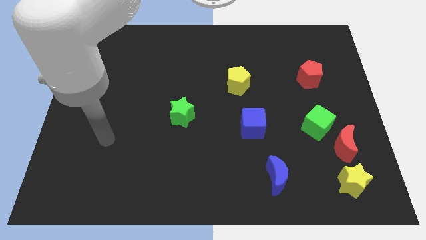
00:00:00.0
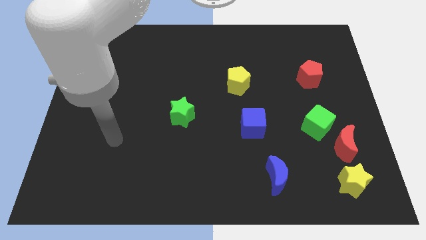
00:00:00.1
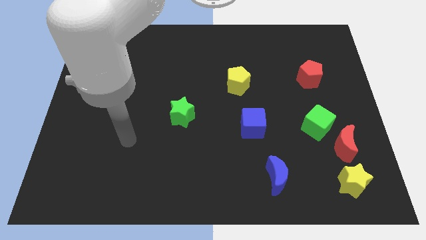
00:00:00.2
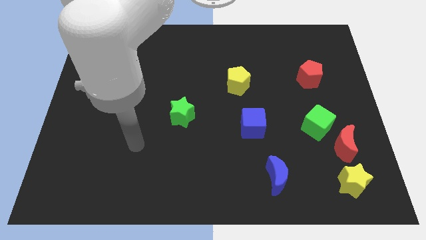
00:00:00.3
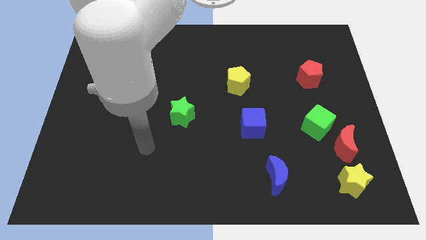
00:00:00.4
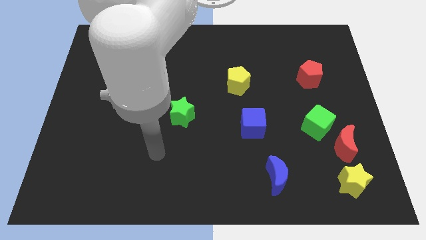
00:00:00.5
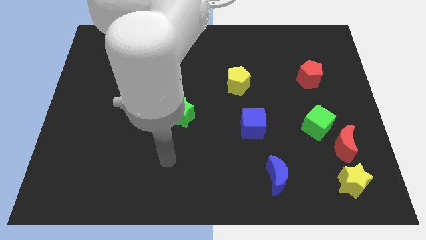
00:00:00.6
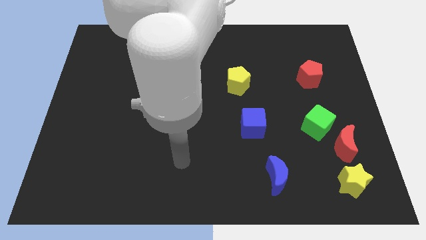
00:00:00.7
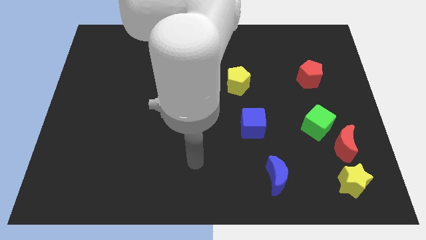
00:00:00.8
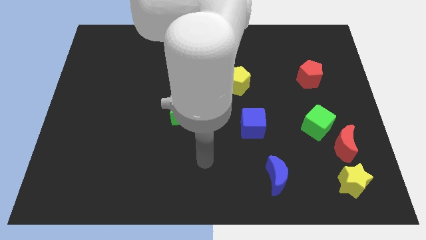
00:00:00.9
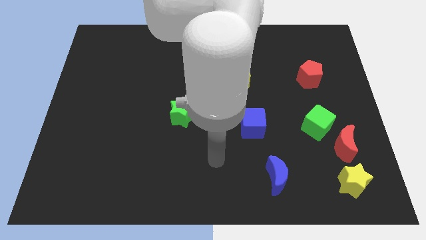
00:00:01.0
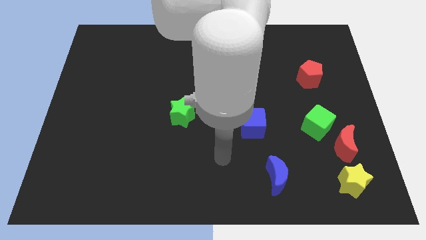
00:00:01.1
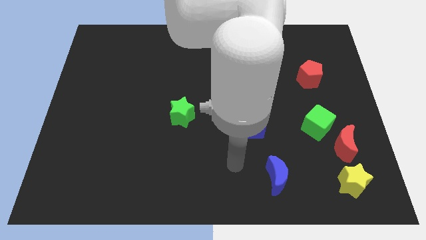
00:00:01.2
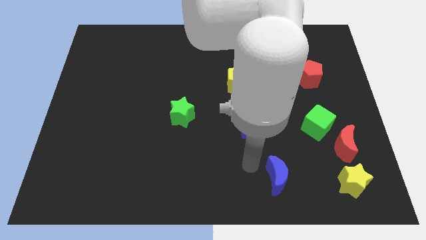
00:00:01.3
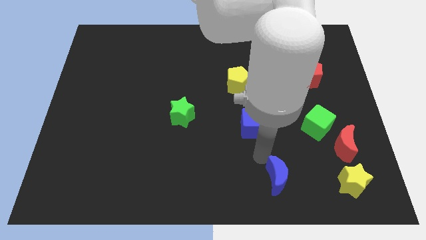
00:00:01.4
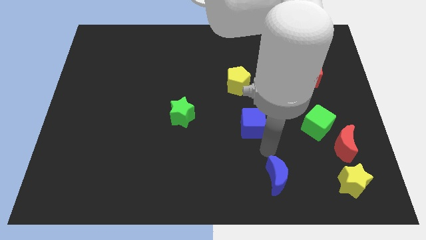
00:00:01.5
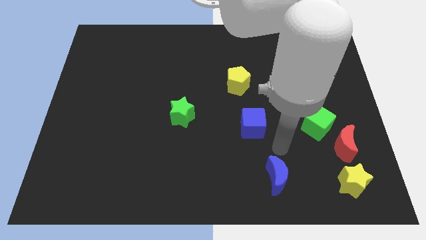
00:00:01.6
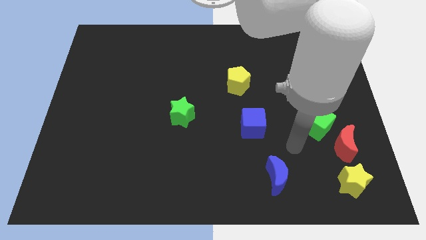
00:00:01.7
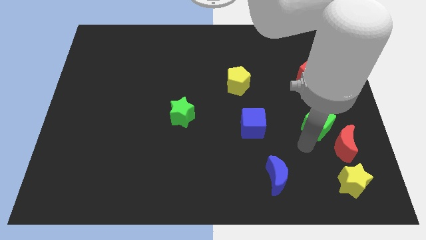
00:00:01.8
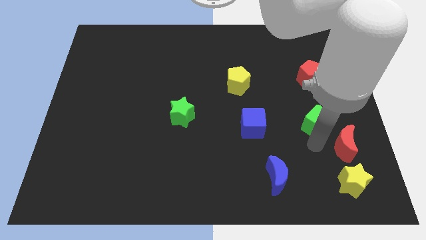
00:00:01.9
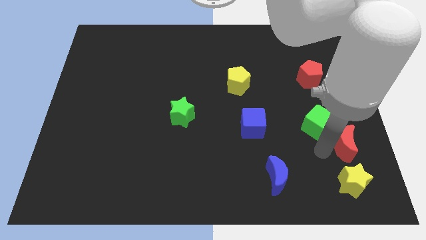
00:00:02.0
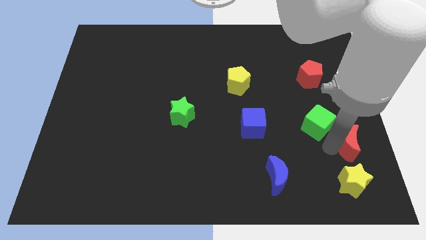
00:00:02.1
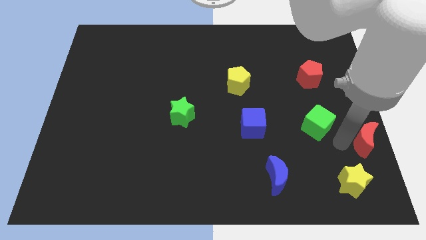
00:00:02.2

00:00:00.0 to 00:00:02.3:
pull the green cube apart from the red moon

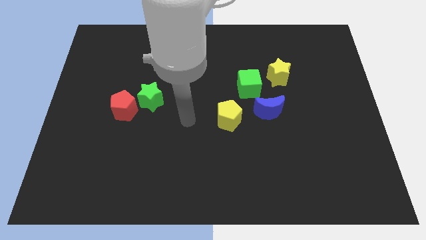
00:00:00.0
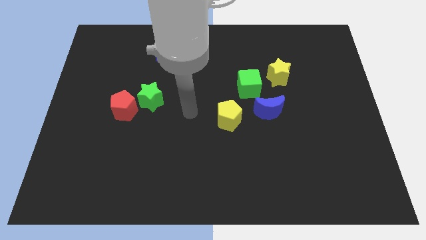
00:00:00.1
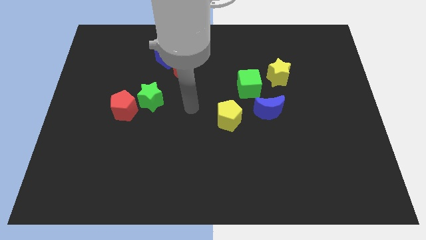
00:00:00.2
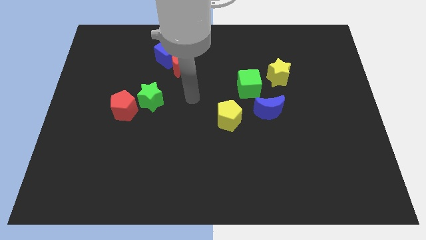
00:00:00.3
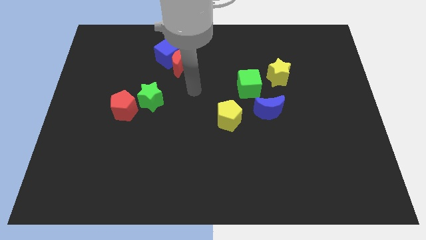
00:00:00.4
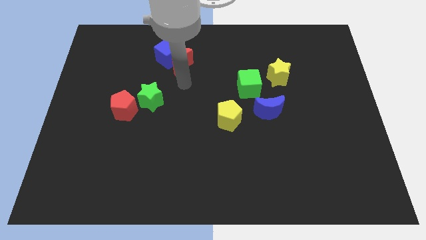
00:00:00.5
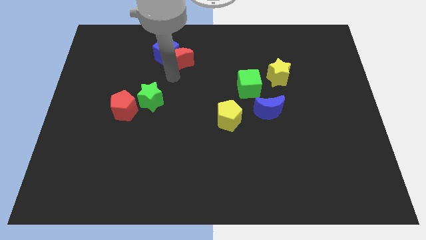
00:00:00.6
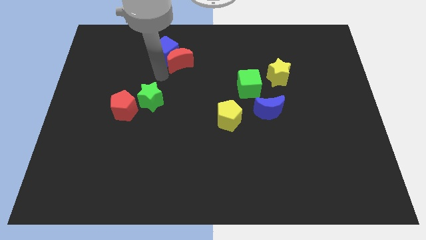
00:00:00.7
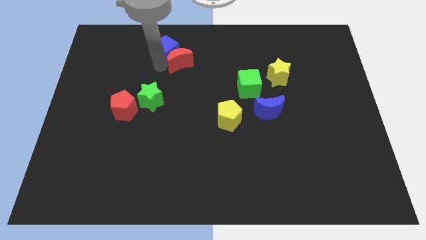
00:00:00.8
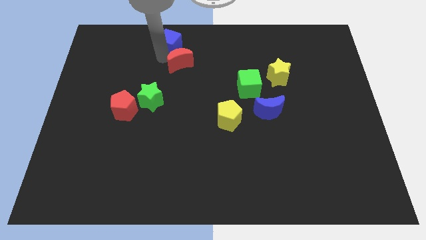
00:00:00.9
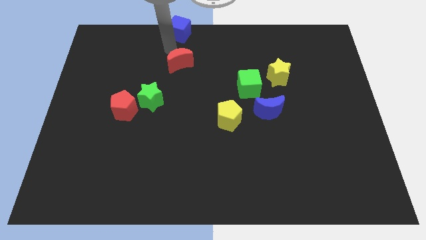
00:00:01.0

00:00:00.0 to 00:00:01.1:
move the red moon away from the blue cube

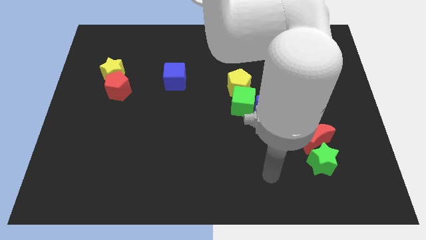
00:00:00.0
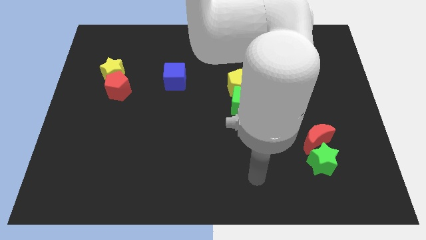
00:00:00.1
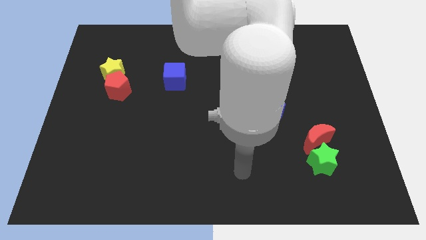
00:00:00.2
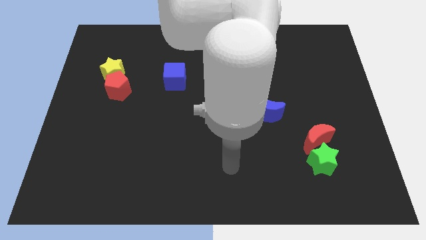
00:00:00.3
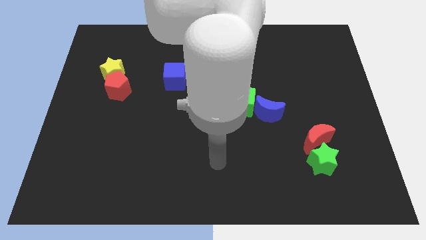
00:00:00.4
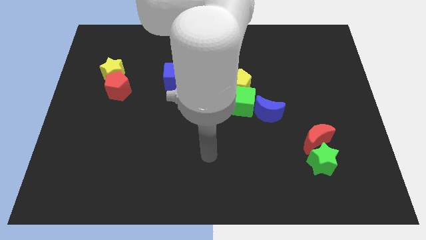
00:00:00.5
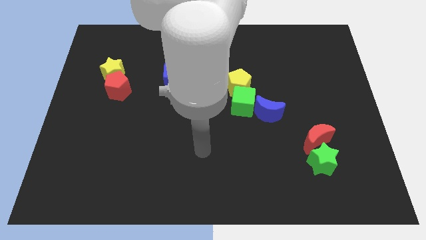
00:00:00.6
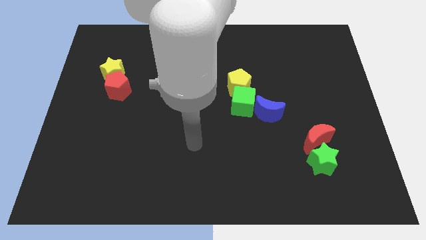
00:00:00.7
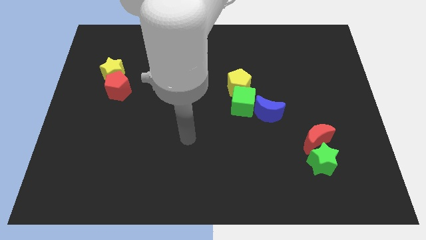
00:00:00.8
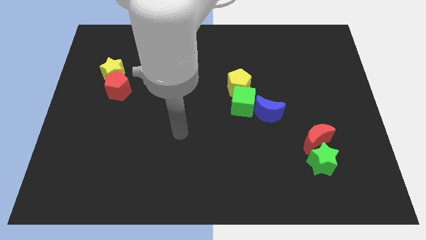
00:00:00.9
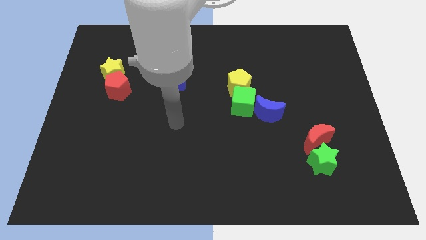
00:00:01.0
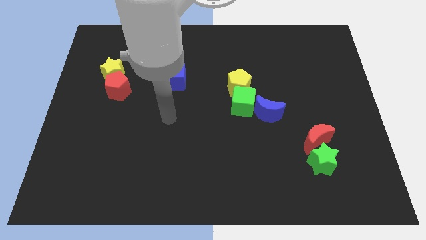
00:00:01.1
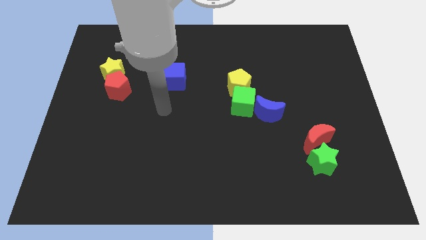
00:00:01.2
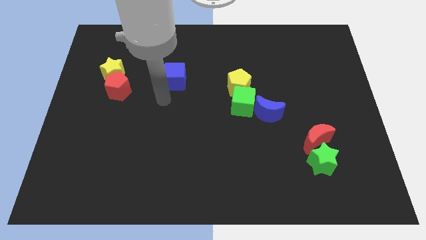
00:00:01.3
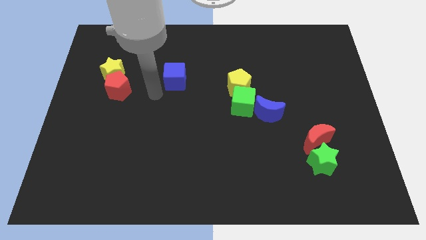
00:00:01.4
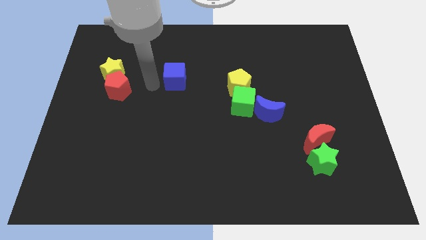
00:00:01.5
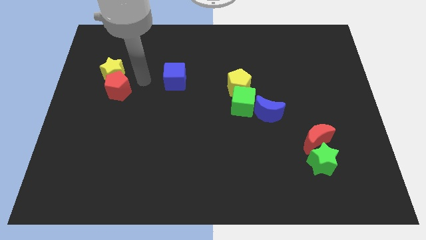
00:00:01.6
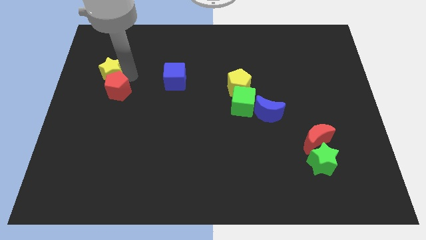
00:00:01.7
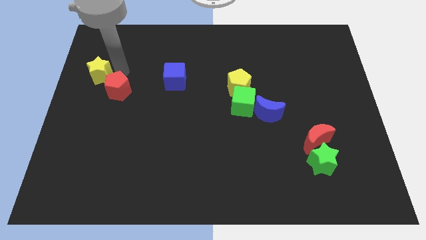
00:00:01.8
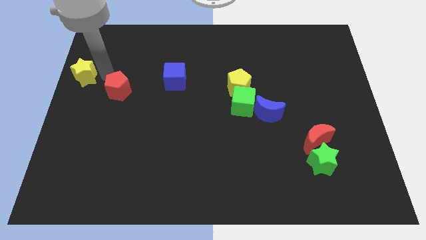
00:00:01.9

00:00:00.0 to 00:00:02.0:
separate the red pentagon from the yellow star

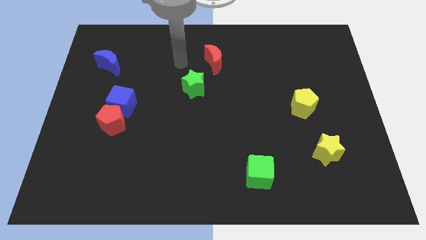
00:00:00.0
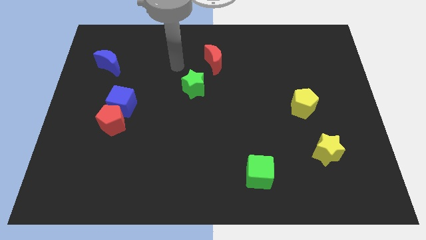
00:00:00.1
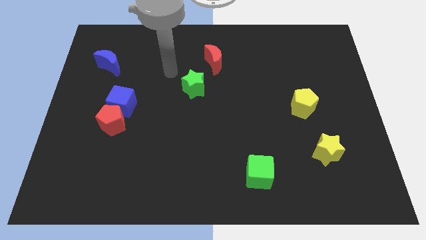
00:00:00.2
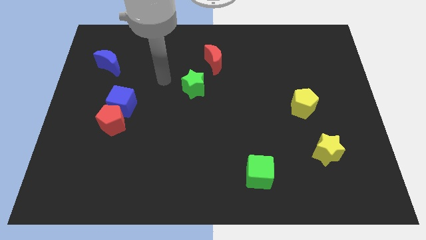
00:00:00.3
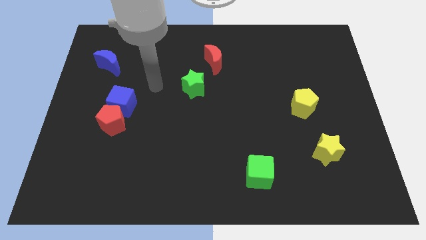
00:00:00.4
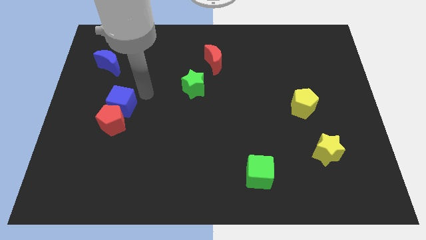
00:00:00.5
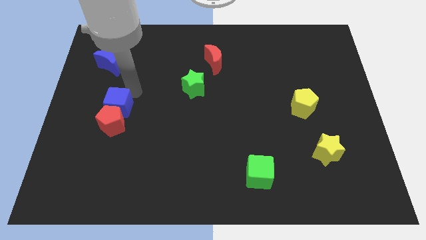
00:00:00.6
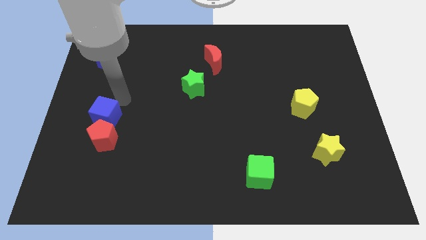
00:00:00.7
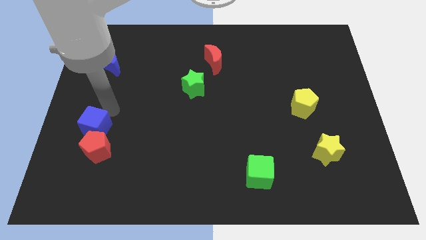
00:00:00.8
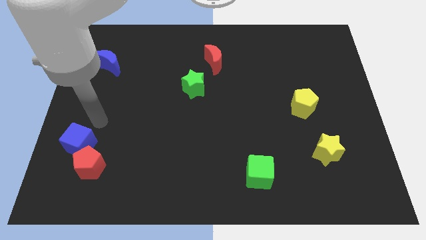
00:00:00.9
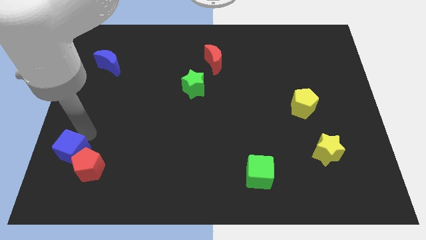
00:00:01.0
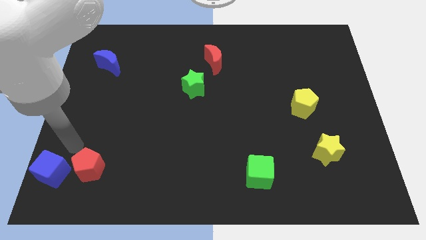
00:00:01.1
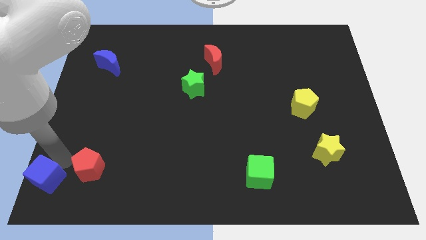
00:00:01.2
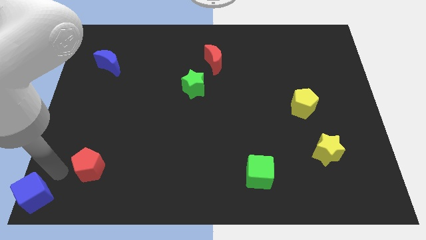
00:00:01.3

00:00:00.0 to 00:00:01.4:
pull the red pentagon apart from the blue cube

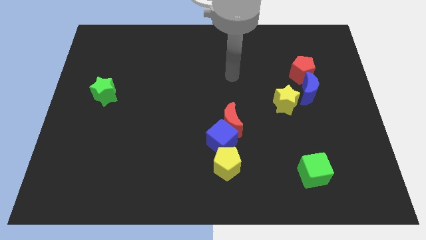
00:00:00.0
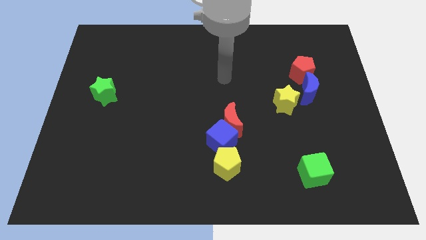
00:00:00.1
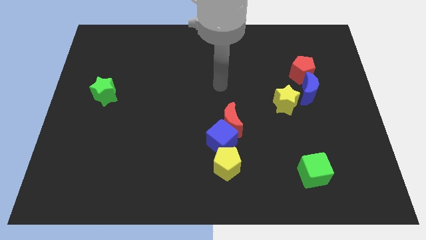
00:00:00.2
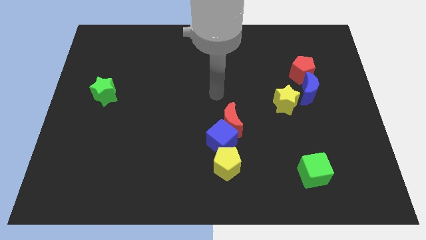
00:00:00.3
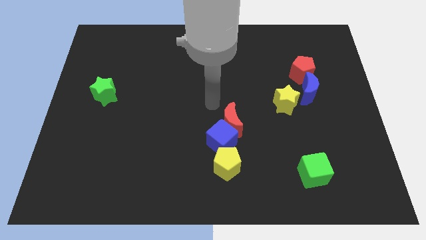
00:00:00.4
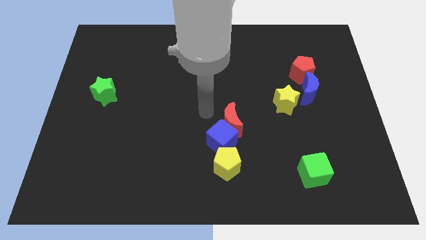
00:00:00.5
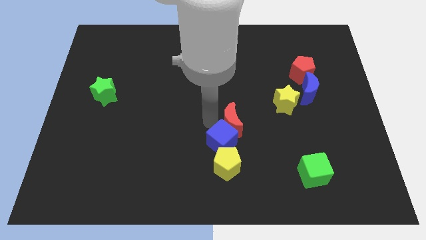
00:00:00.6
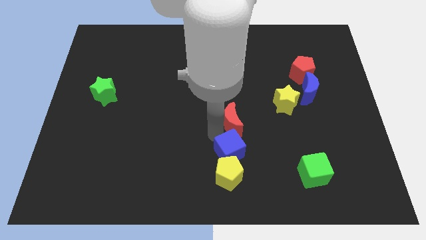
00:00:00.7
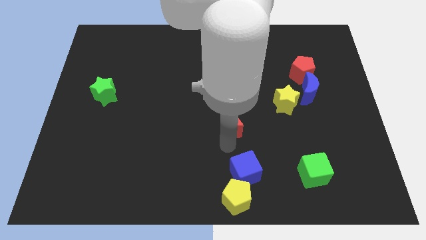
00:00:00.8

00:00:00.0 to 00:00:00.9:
pull the red moon apart from the blue cube

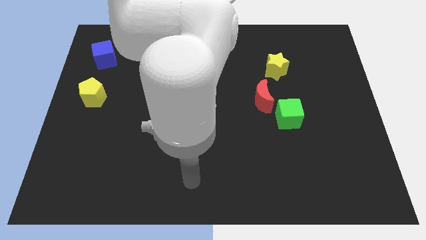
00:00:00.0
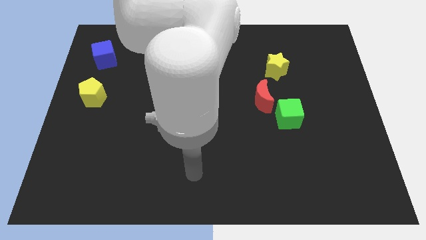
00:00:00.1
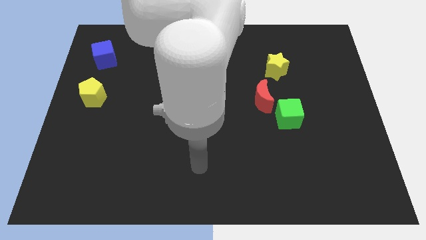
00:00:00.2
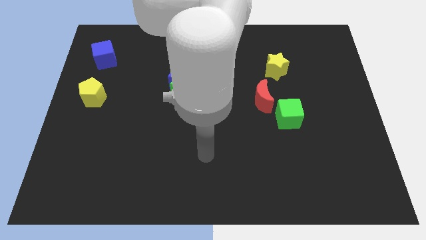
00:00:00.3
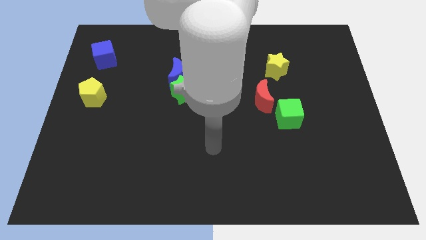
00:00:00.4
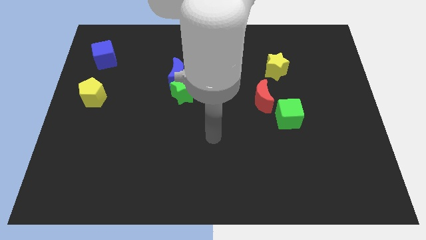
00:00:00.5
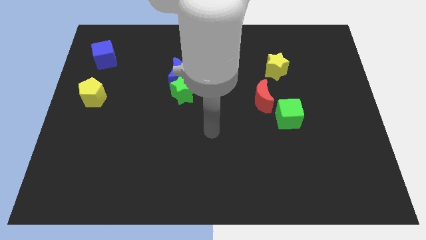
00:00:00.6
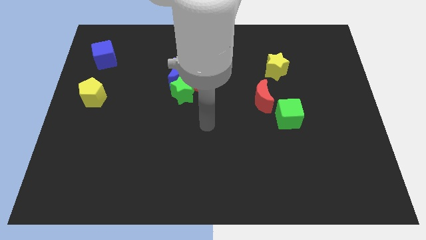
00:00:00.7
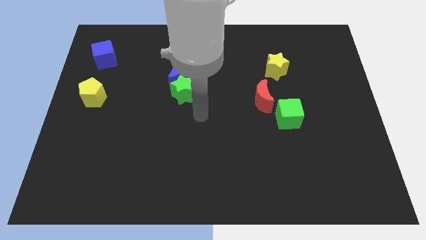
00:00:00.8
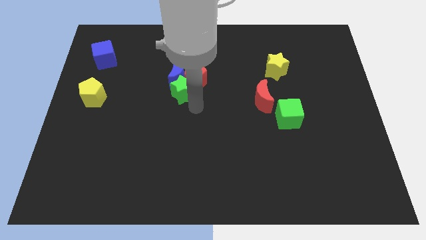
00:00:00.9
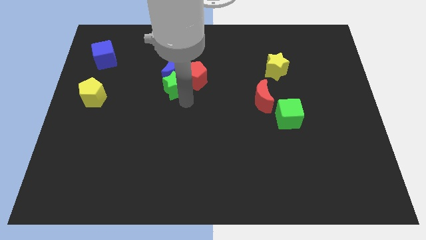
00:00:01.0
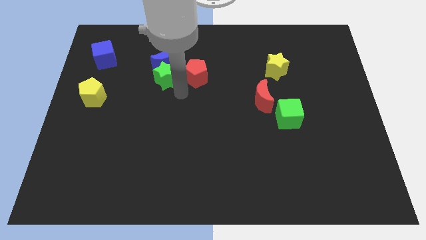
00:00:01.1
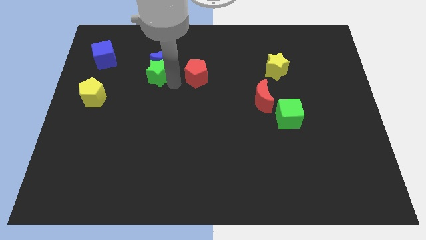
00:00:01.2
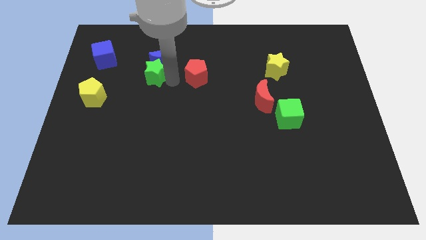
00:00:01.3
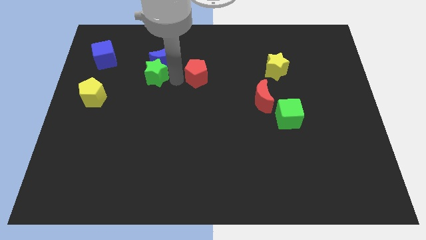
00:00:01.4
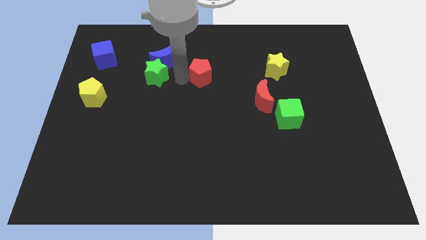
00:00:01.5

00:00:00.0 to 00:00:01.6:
pull the red pentagon apart from the blue moon and green star
